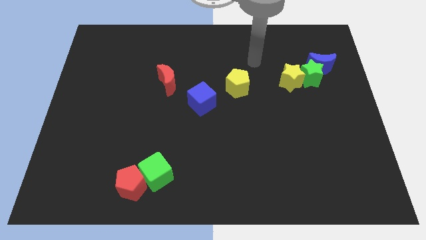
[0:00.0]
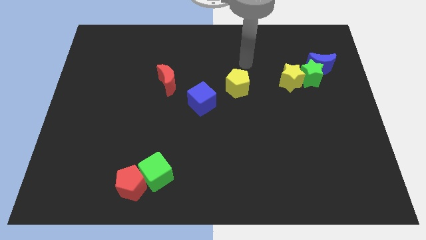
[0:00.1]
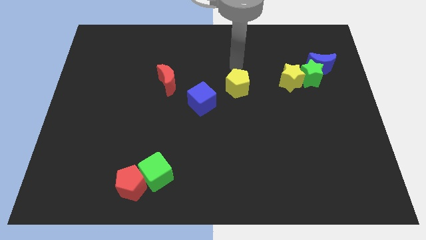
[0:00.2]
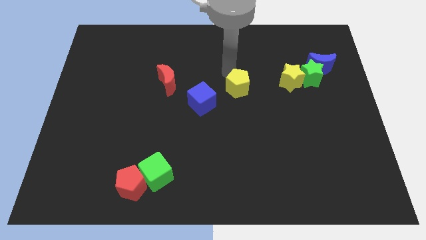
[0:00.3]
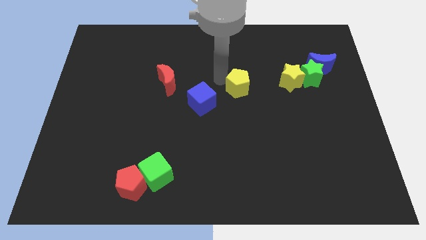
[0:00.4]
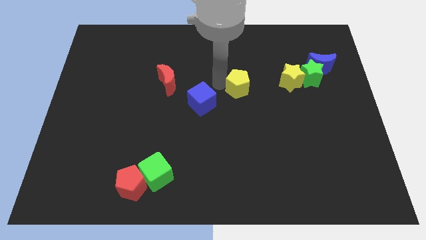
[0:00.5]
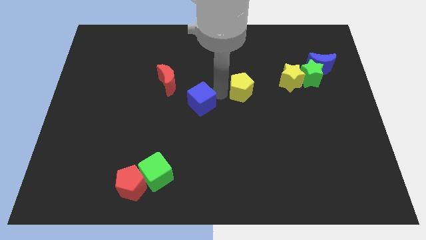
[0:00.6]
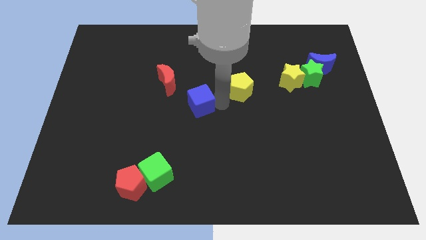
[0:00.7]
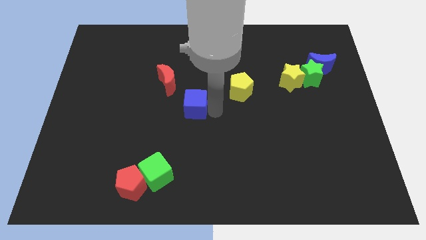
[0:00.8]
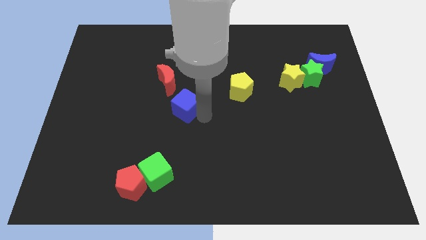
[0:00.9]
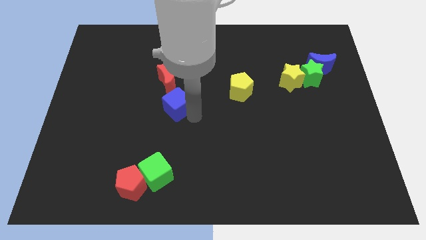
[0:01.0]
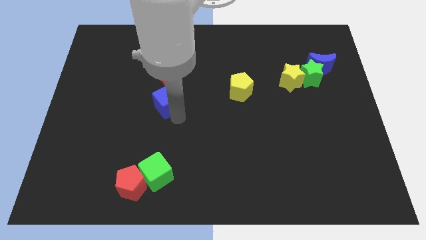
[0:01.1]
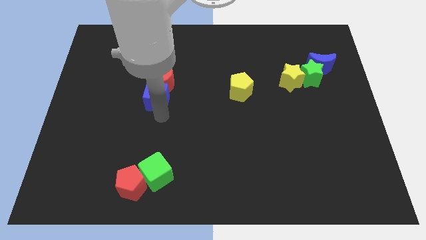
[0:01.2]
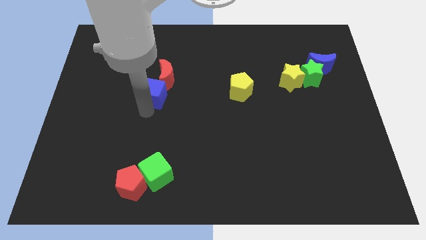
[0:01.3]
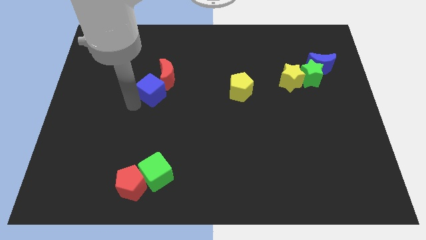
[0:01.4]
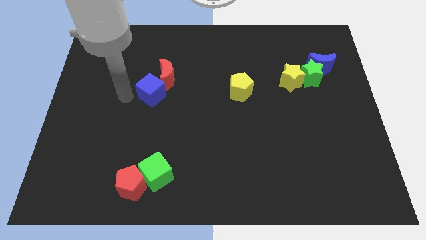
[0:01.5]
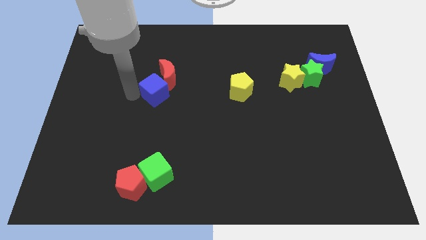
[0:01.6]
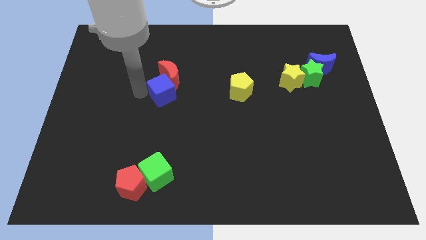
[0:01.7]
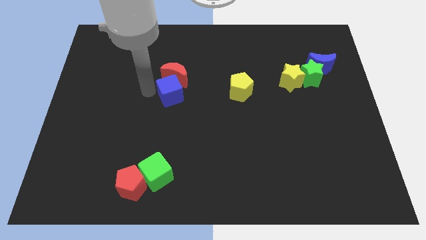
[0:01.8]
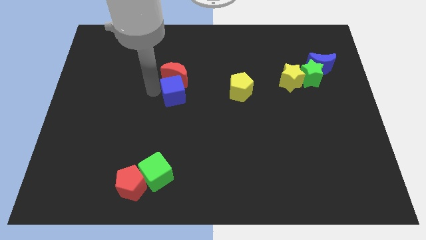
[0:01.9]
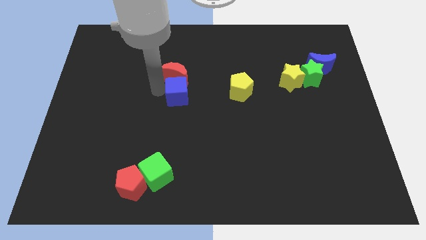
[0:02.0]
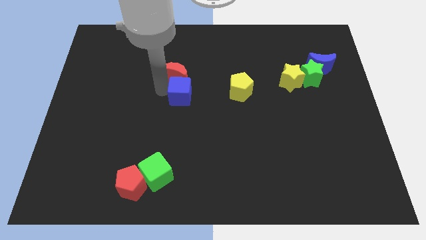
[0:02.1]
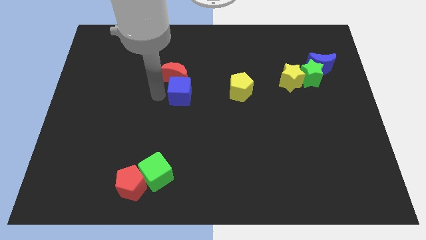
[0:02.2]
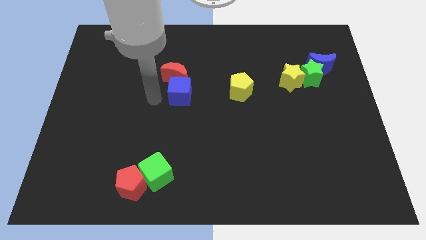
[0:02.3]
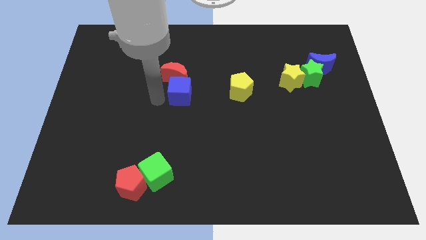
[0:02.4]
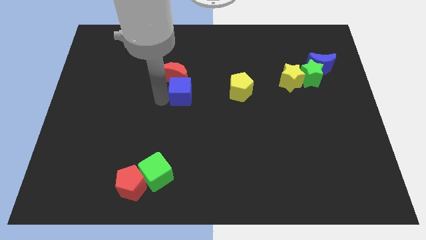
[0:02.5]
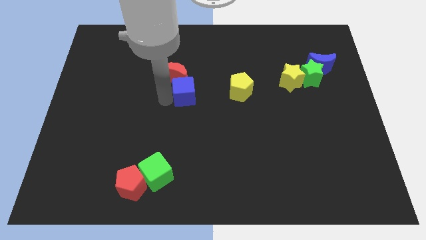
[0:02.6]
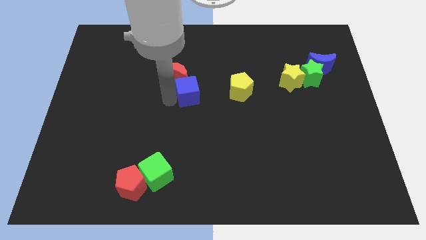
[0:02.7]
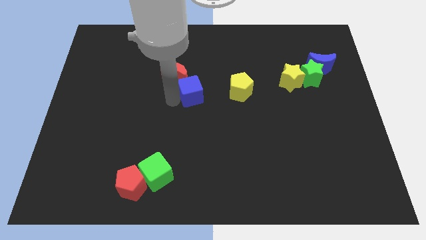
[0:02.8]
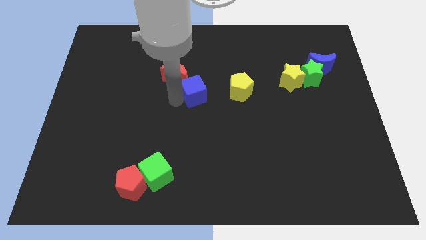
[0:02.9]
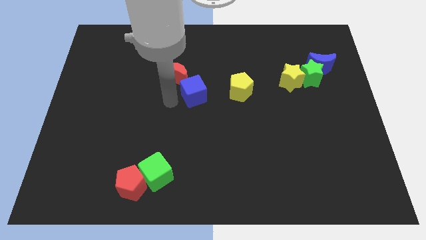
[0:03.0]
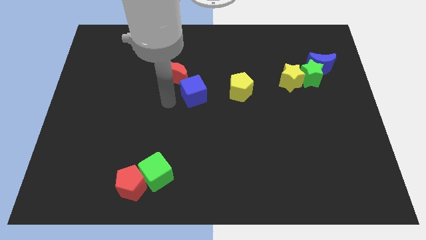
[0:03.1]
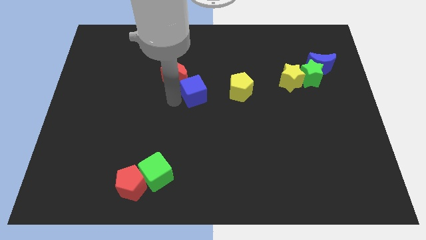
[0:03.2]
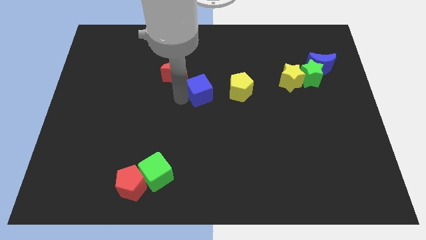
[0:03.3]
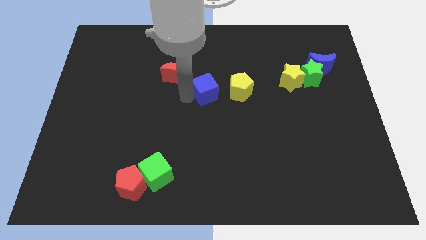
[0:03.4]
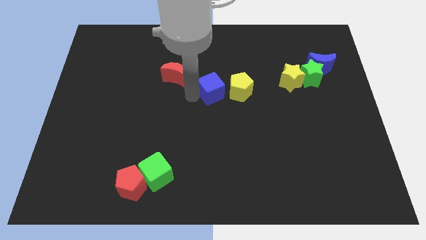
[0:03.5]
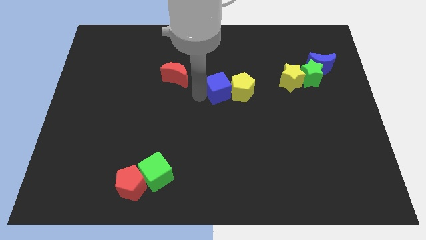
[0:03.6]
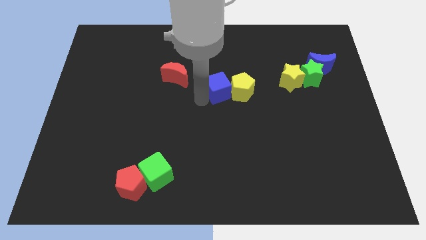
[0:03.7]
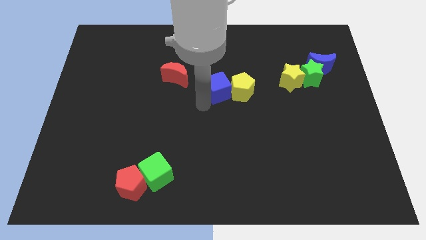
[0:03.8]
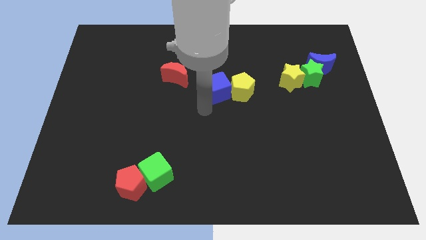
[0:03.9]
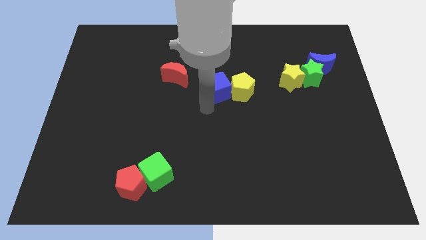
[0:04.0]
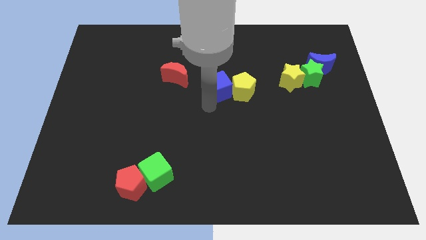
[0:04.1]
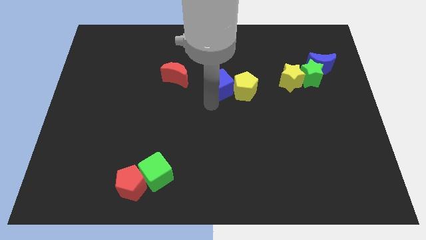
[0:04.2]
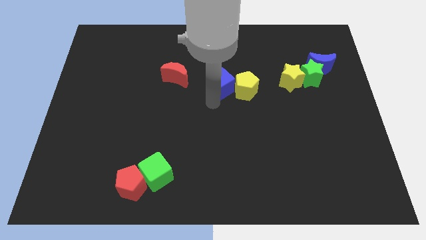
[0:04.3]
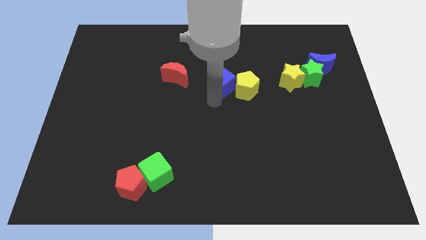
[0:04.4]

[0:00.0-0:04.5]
slightly move the blue cube diagonally up and right

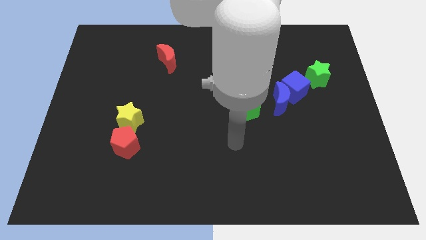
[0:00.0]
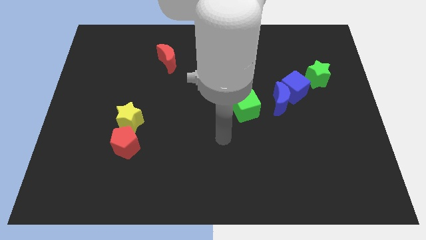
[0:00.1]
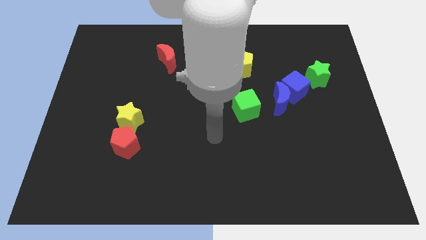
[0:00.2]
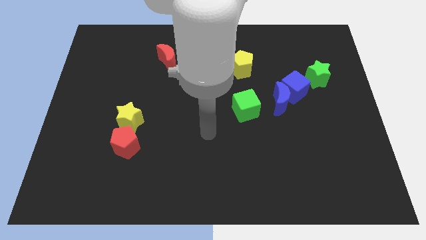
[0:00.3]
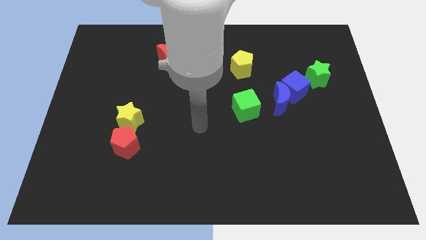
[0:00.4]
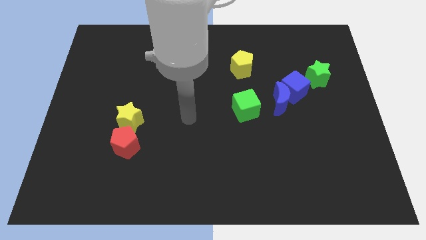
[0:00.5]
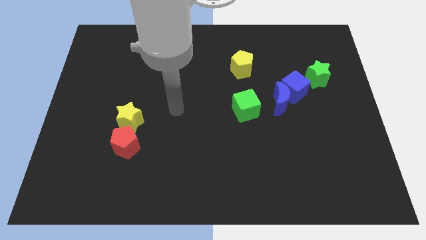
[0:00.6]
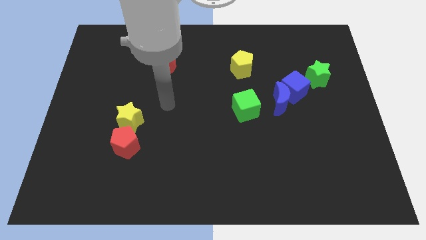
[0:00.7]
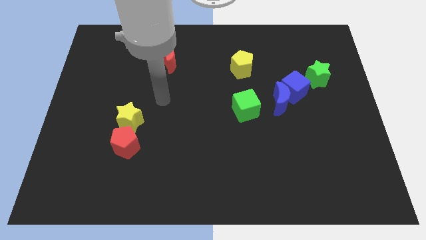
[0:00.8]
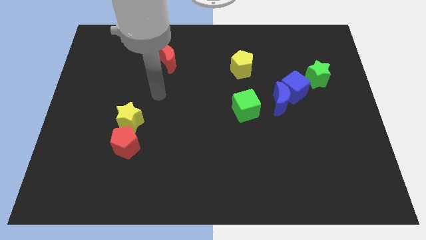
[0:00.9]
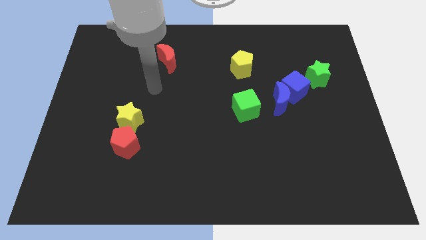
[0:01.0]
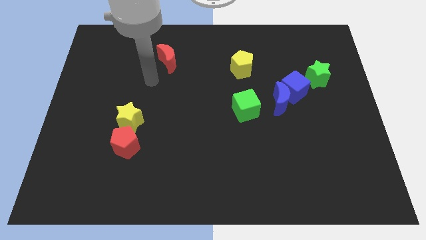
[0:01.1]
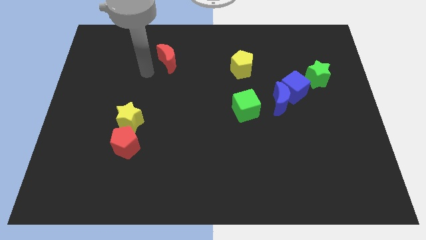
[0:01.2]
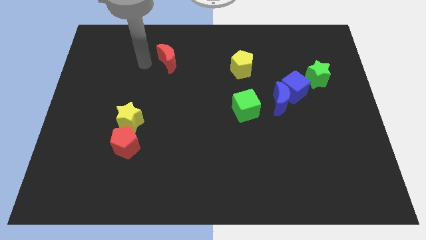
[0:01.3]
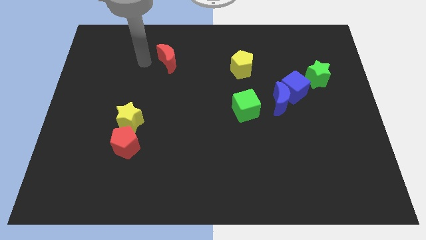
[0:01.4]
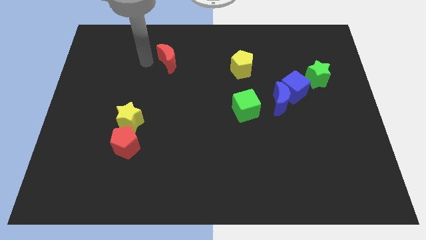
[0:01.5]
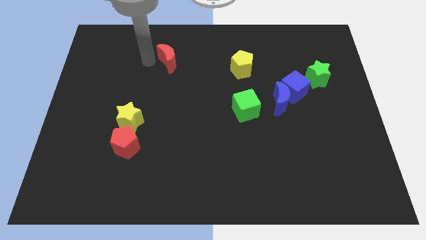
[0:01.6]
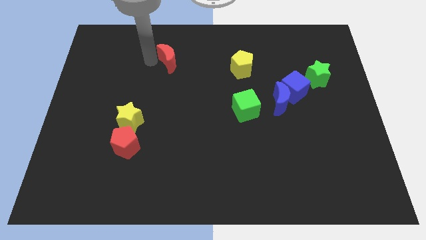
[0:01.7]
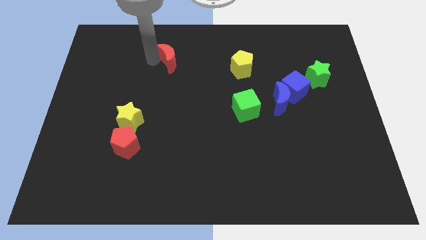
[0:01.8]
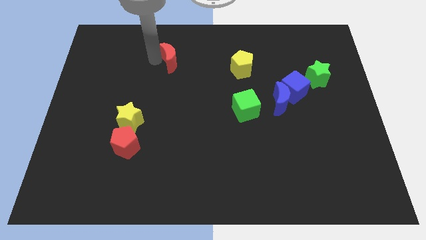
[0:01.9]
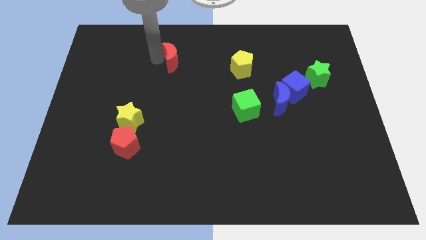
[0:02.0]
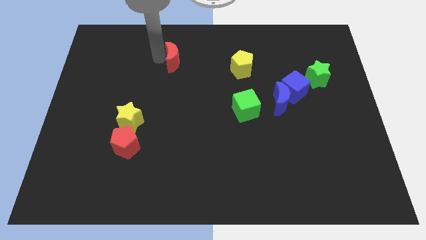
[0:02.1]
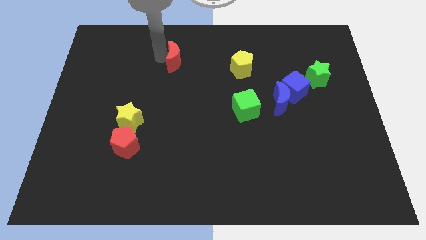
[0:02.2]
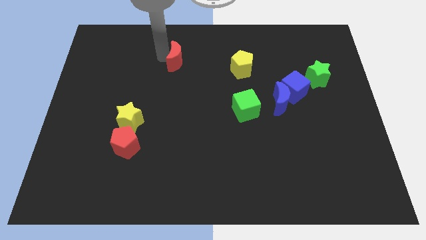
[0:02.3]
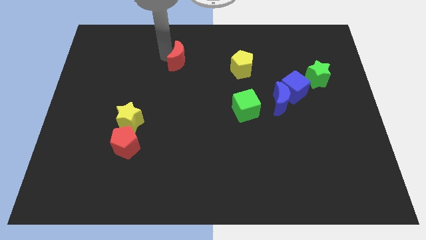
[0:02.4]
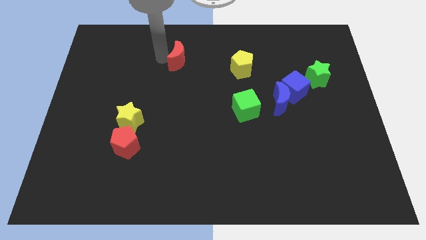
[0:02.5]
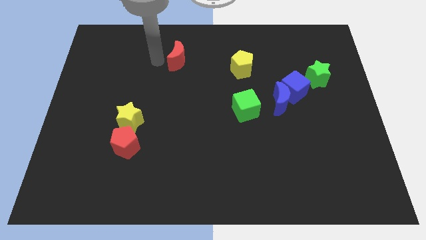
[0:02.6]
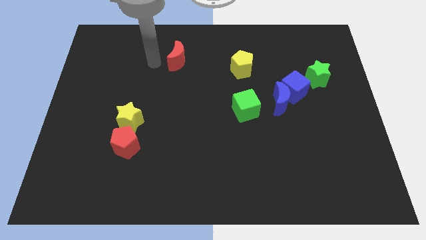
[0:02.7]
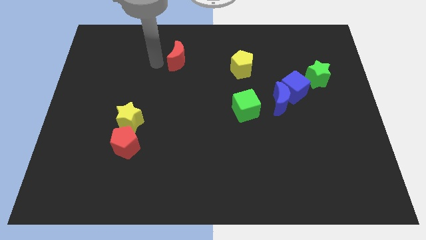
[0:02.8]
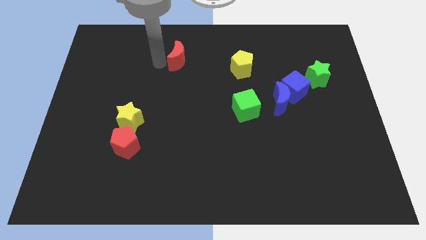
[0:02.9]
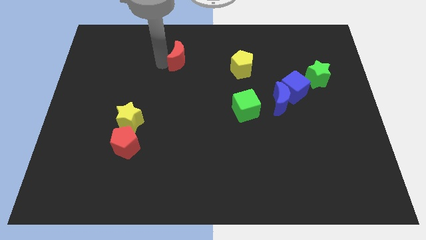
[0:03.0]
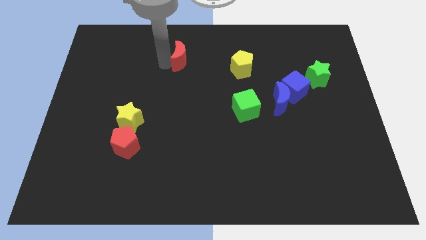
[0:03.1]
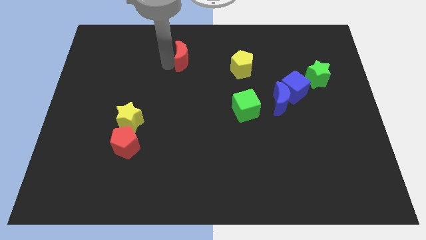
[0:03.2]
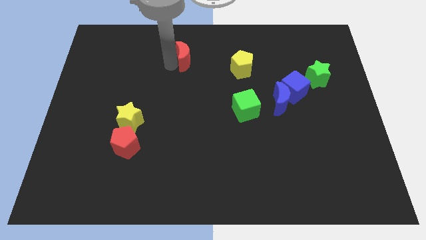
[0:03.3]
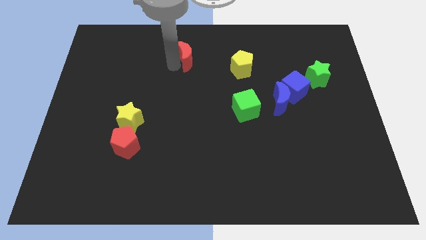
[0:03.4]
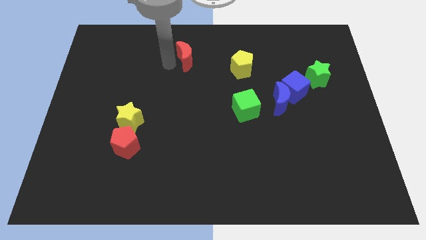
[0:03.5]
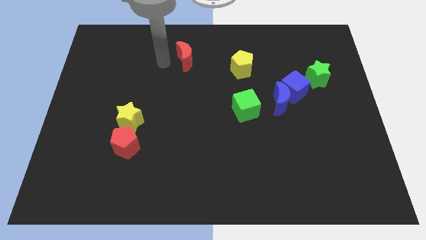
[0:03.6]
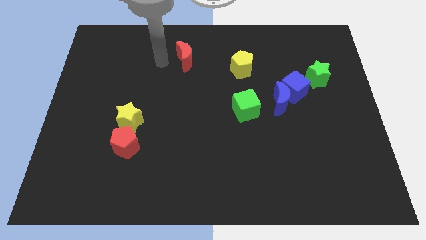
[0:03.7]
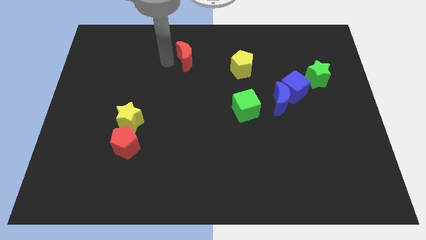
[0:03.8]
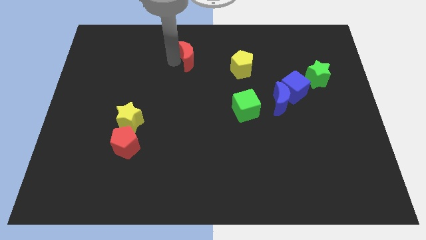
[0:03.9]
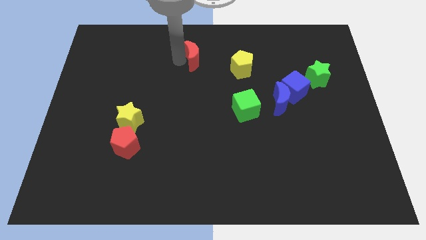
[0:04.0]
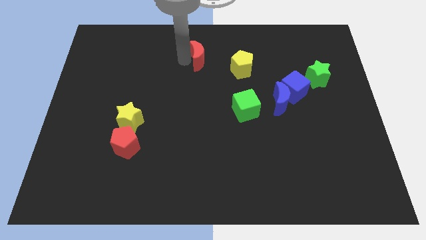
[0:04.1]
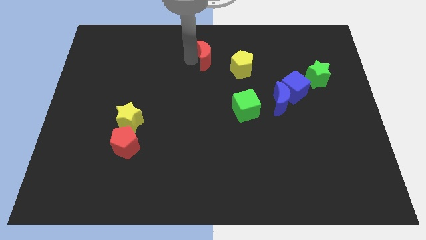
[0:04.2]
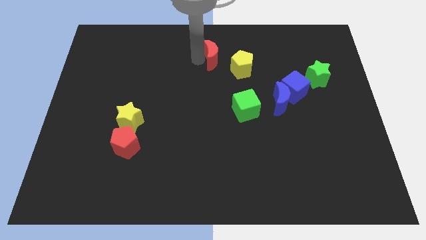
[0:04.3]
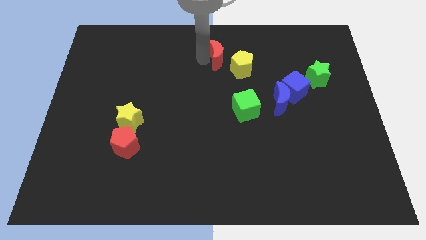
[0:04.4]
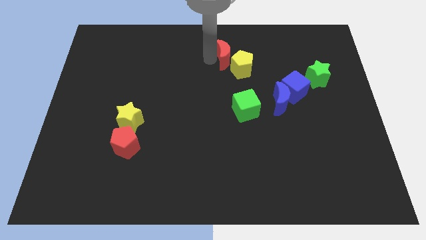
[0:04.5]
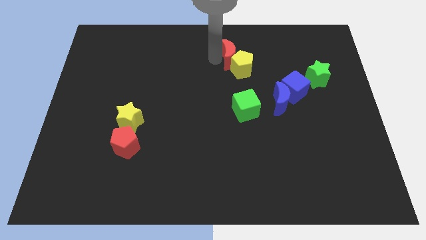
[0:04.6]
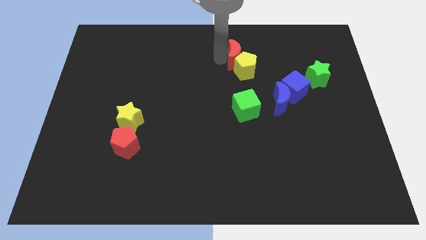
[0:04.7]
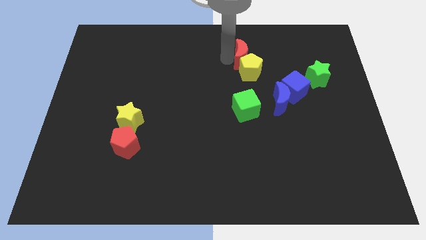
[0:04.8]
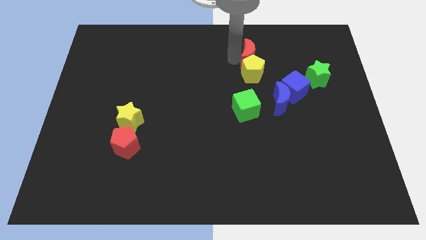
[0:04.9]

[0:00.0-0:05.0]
push the red moon right
